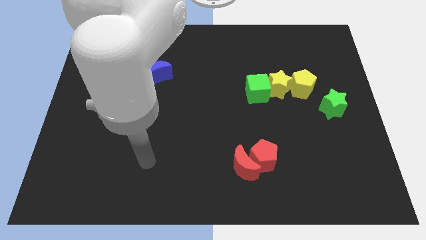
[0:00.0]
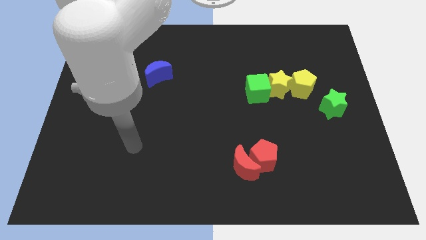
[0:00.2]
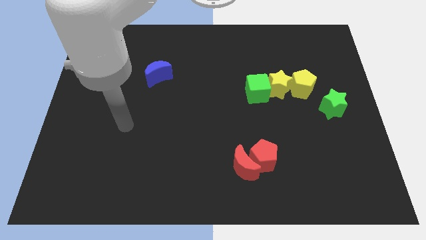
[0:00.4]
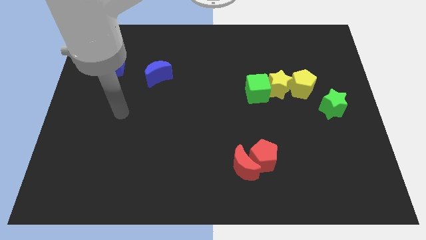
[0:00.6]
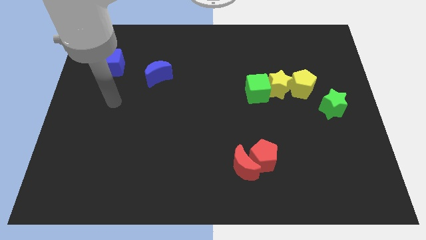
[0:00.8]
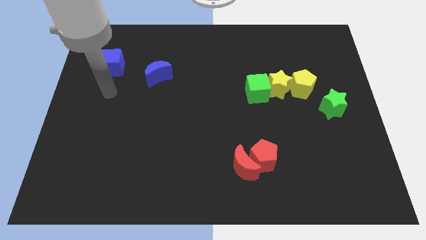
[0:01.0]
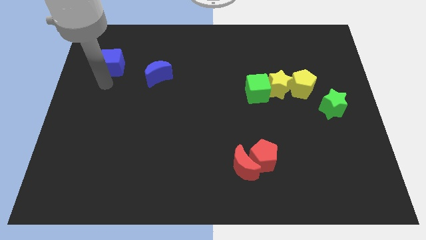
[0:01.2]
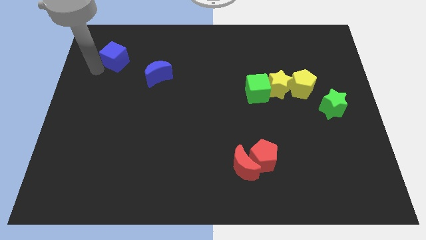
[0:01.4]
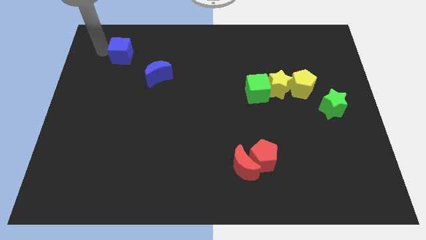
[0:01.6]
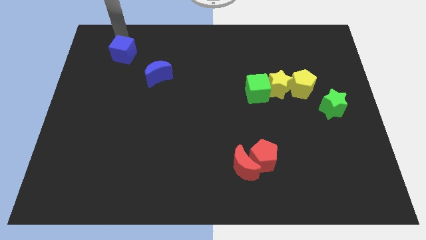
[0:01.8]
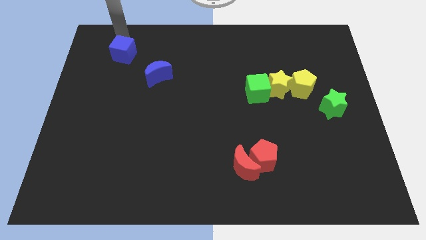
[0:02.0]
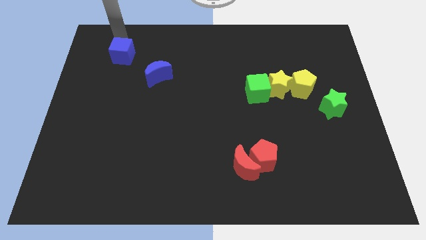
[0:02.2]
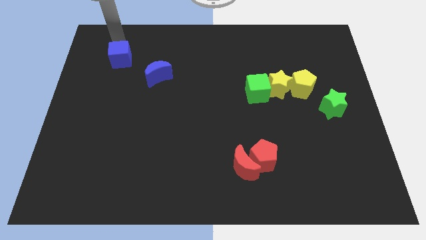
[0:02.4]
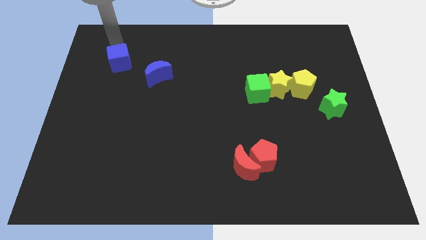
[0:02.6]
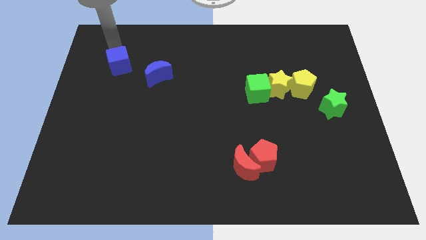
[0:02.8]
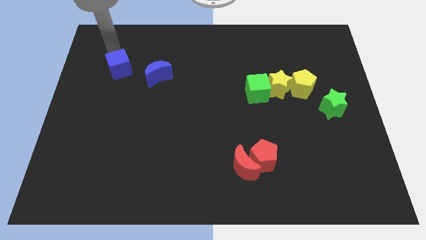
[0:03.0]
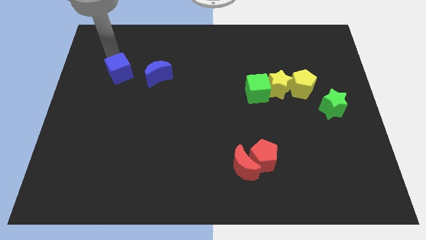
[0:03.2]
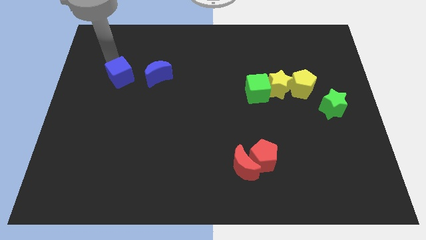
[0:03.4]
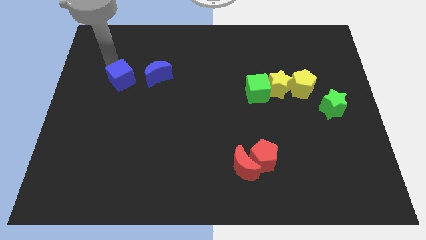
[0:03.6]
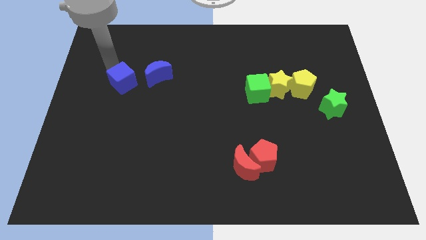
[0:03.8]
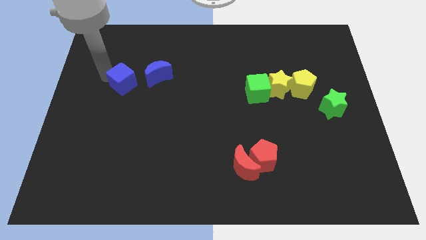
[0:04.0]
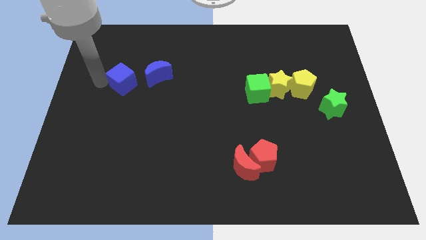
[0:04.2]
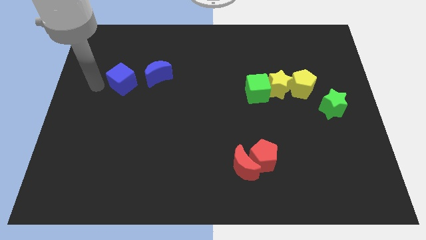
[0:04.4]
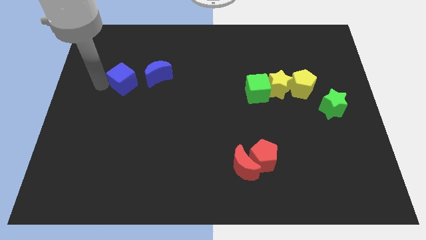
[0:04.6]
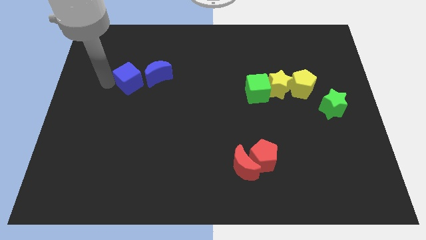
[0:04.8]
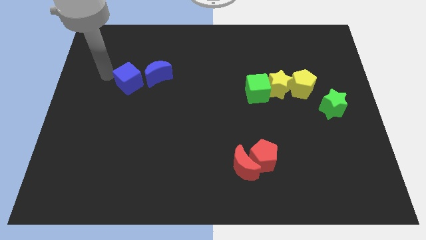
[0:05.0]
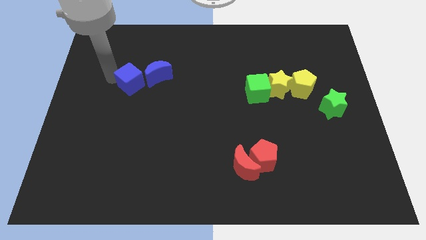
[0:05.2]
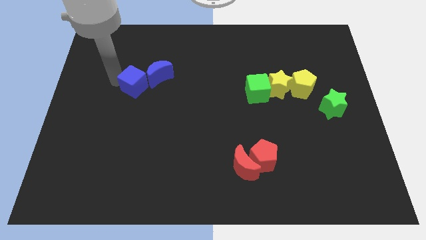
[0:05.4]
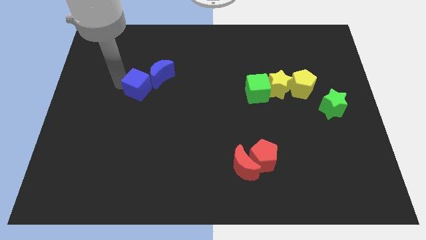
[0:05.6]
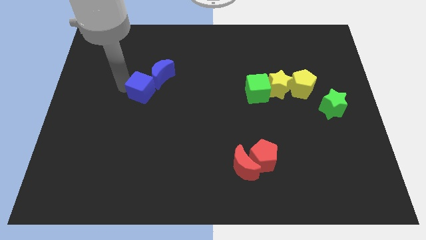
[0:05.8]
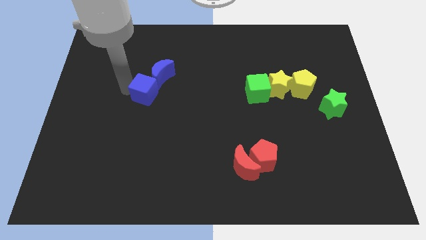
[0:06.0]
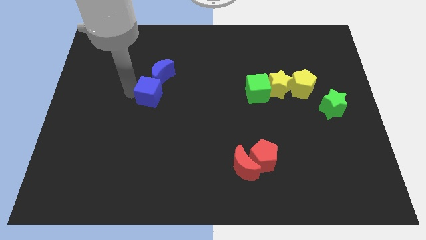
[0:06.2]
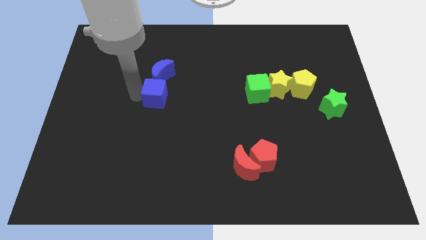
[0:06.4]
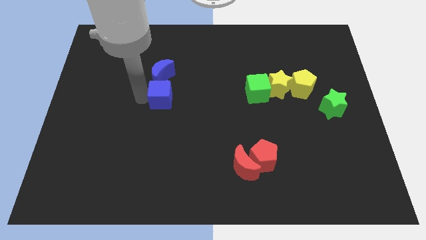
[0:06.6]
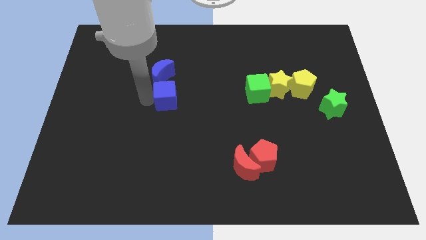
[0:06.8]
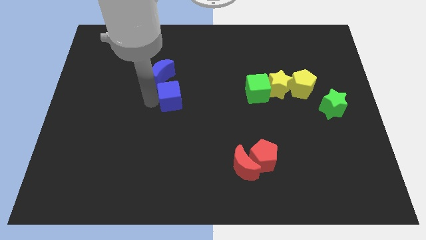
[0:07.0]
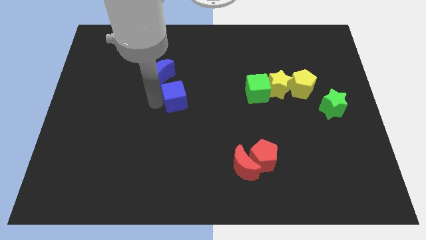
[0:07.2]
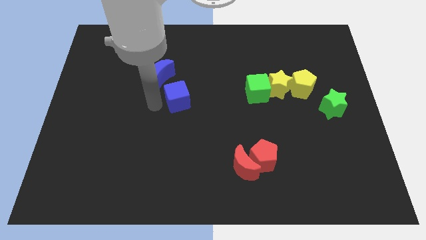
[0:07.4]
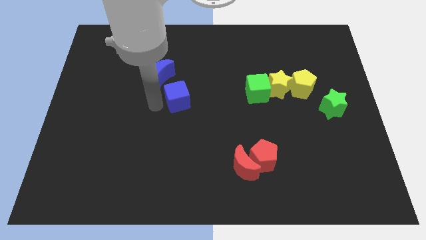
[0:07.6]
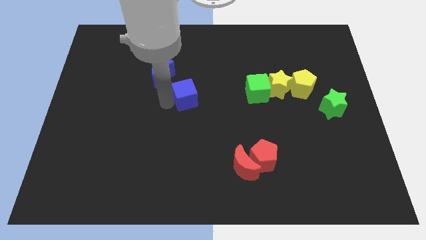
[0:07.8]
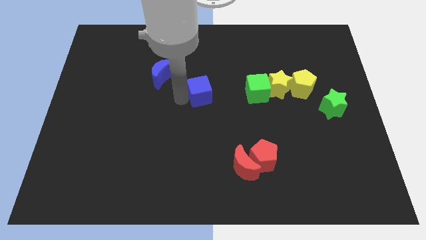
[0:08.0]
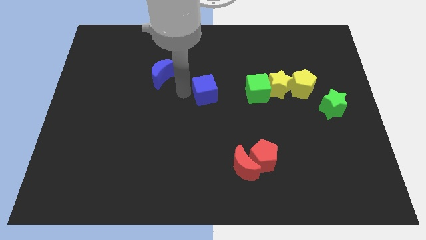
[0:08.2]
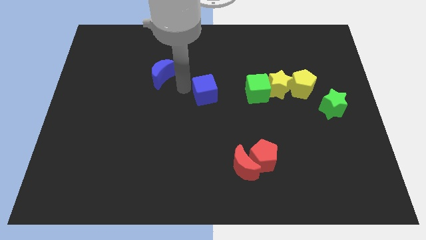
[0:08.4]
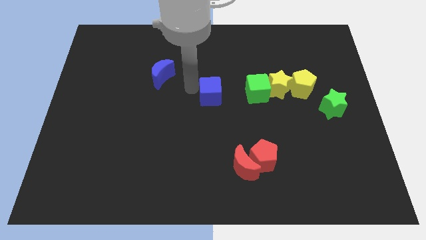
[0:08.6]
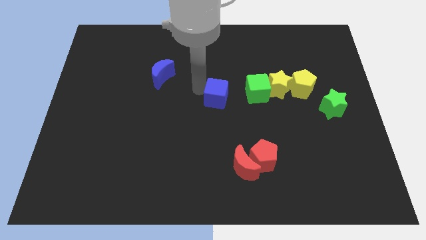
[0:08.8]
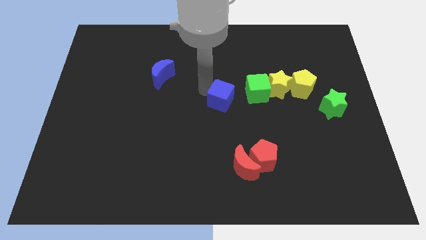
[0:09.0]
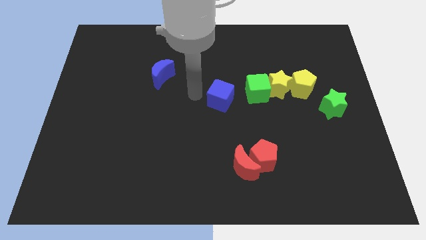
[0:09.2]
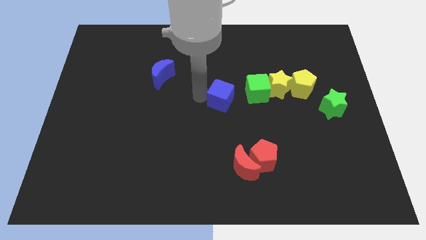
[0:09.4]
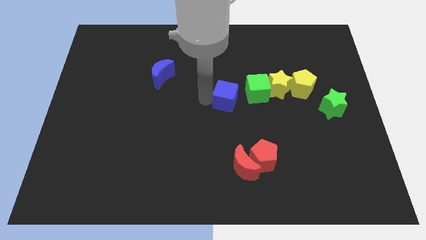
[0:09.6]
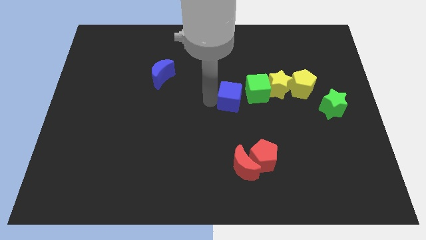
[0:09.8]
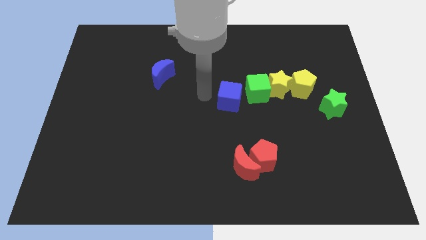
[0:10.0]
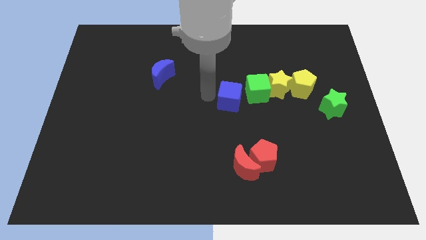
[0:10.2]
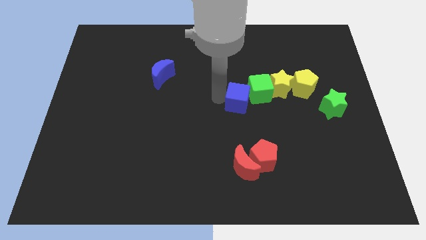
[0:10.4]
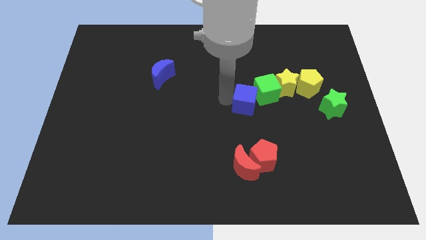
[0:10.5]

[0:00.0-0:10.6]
put the blue cube to the bottom left of the yellow star

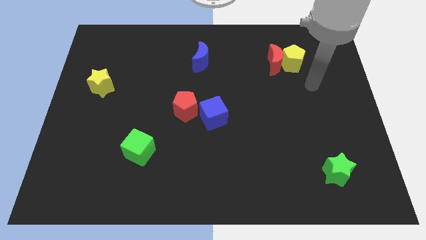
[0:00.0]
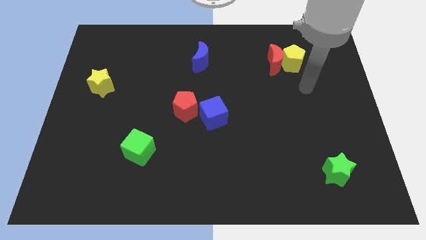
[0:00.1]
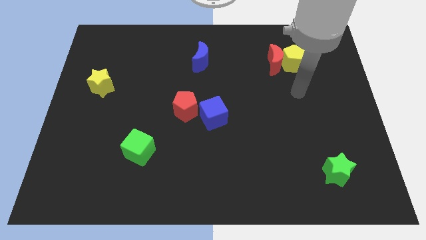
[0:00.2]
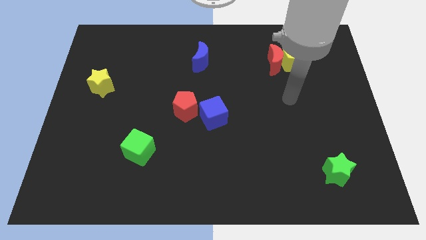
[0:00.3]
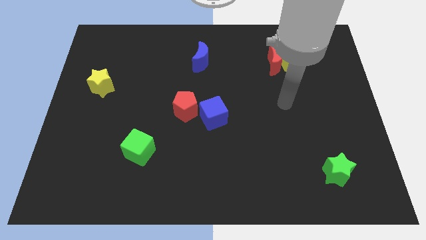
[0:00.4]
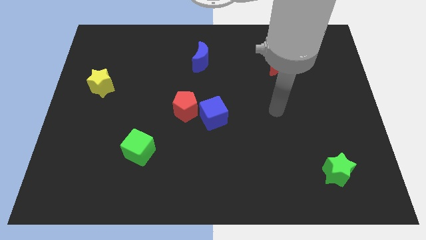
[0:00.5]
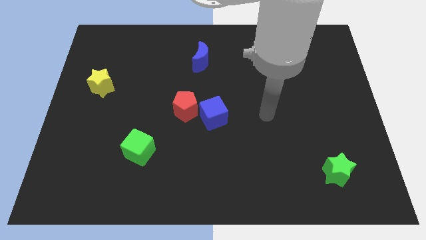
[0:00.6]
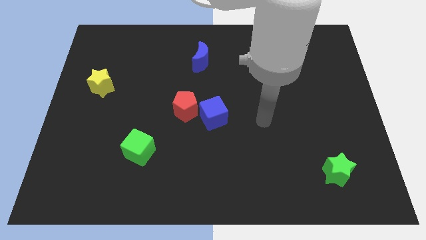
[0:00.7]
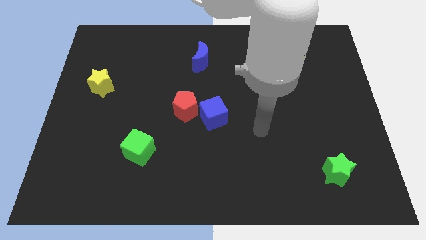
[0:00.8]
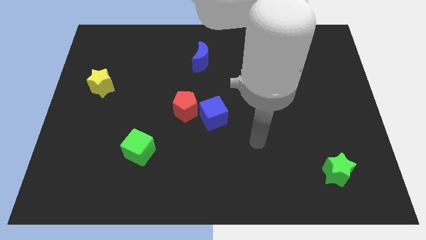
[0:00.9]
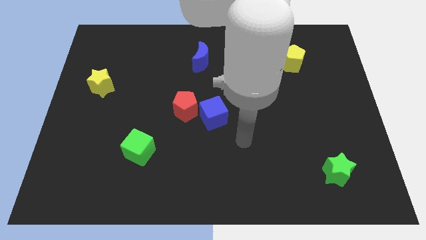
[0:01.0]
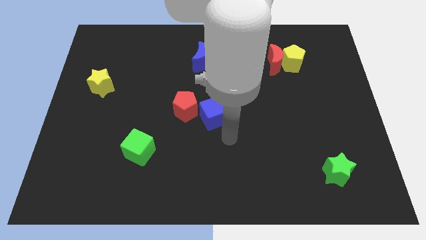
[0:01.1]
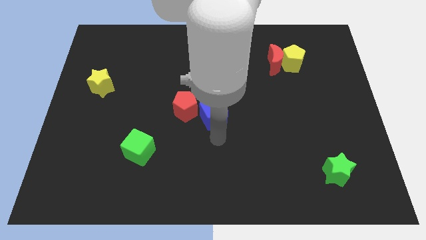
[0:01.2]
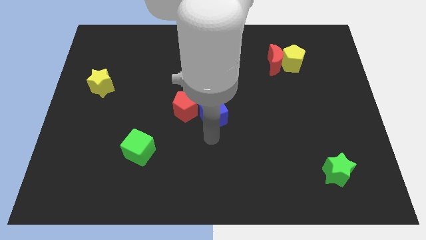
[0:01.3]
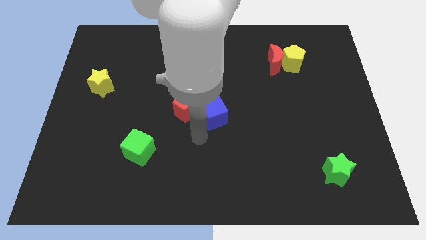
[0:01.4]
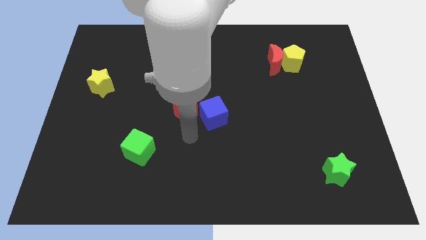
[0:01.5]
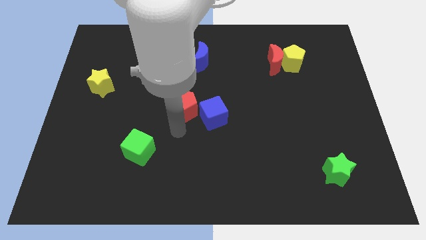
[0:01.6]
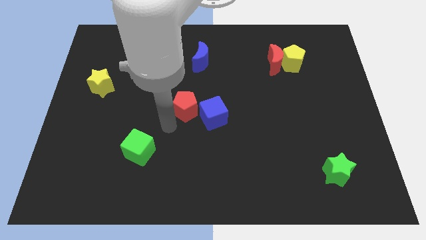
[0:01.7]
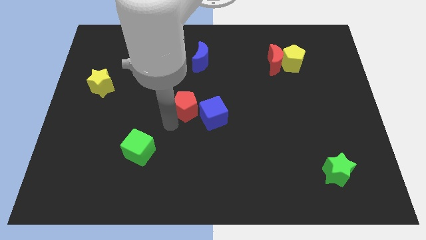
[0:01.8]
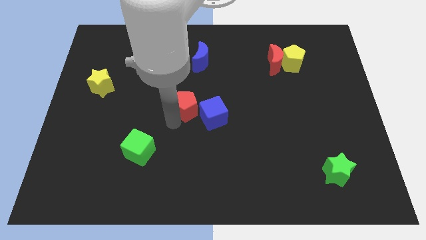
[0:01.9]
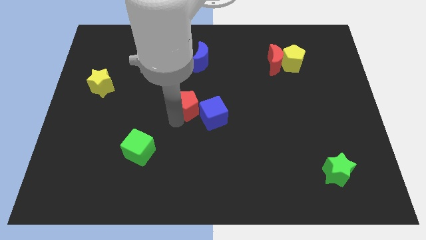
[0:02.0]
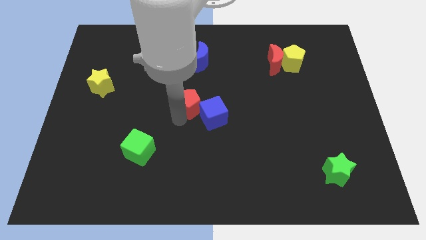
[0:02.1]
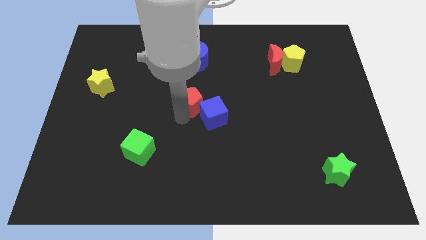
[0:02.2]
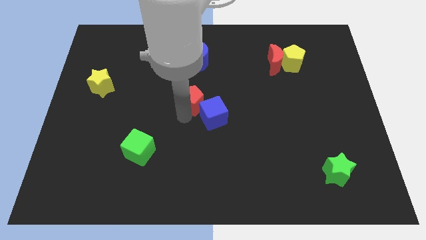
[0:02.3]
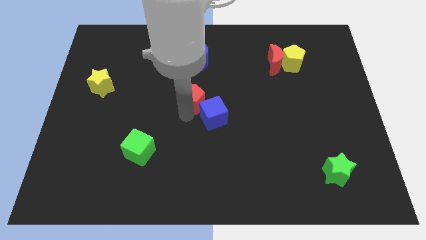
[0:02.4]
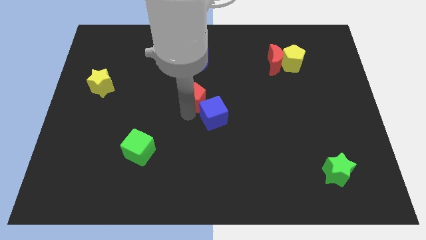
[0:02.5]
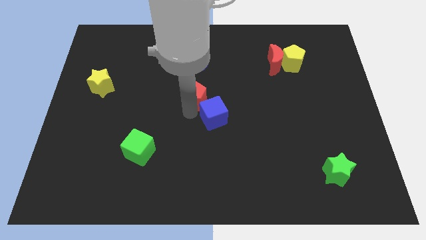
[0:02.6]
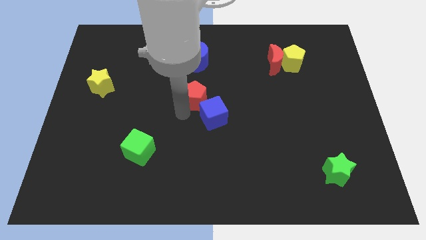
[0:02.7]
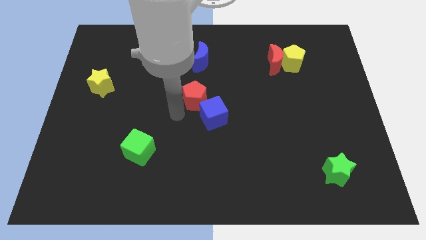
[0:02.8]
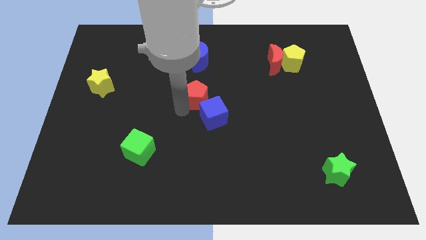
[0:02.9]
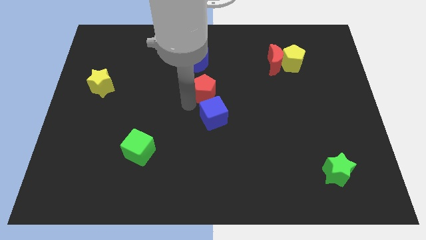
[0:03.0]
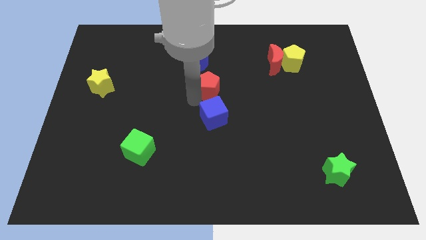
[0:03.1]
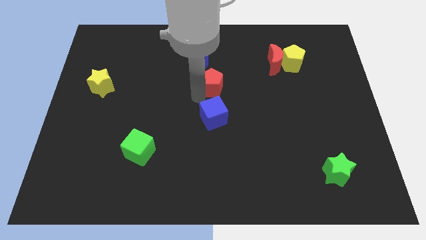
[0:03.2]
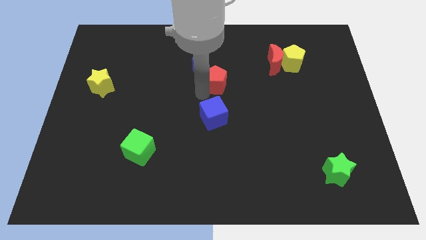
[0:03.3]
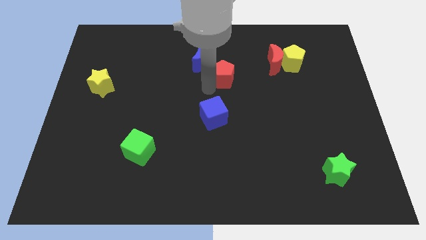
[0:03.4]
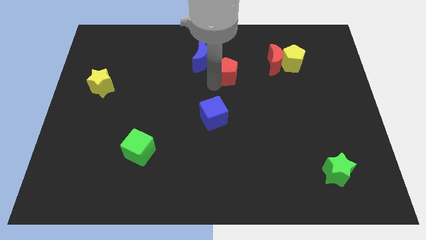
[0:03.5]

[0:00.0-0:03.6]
move the red pentagon just left of the red moon
